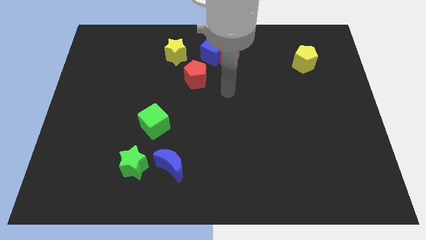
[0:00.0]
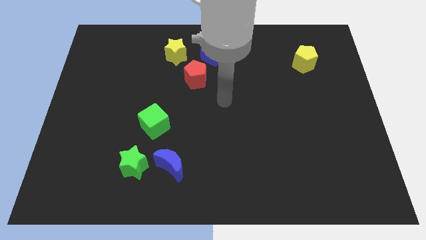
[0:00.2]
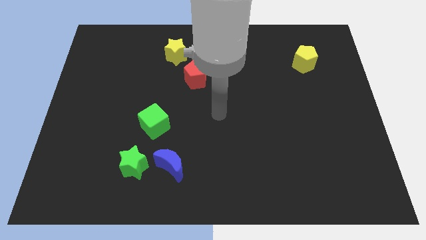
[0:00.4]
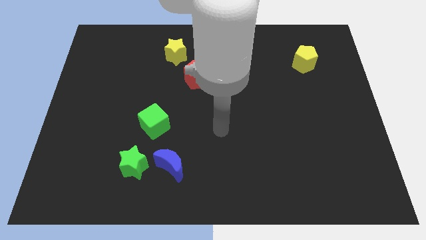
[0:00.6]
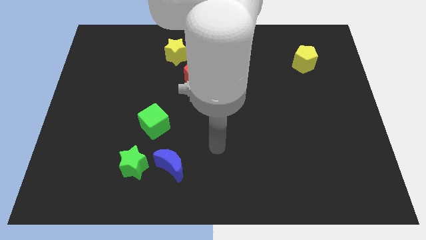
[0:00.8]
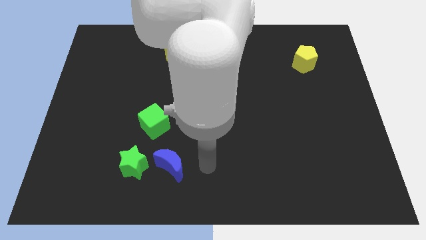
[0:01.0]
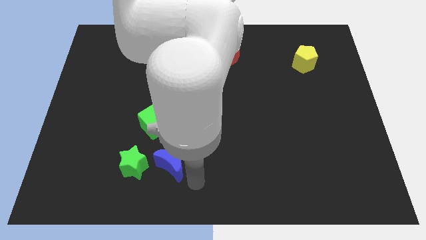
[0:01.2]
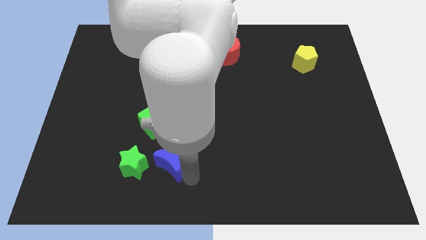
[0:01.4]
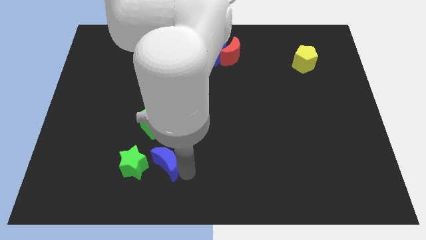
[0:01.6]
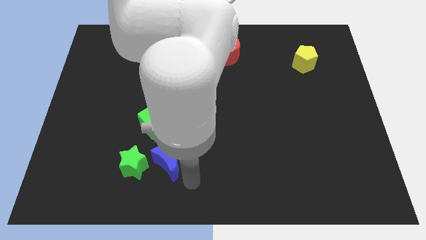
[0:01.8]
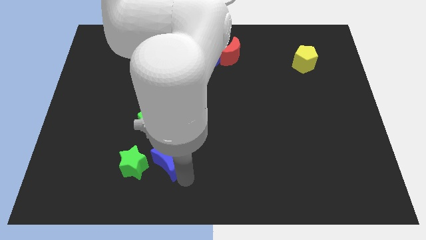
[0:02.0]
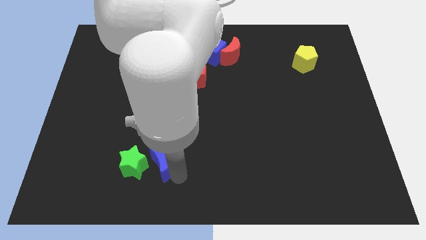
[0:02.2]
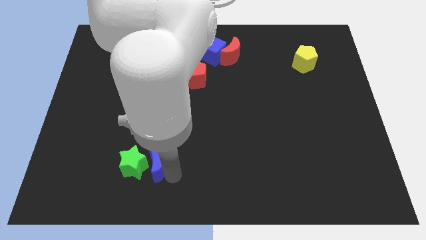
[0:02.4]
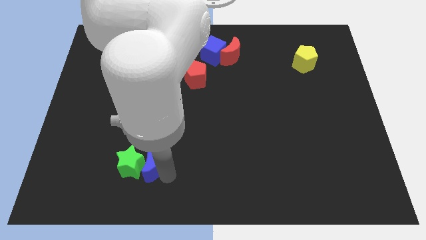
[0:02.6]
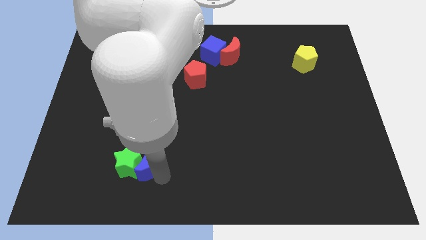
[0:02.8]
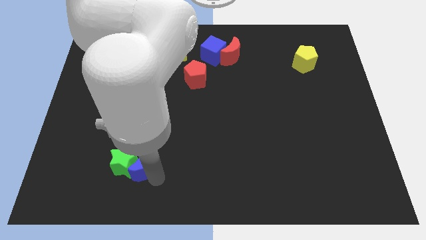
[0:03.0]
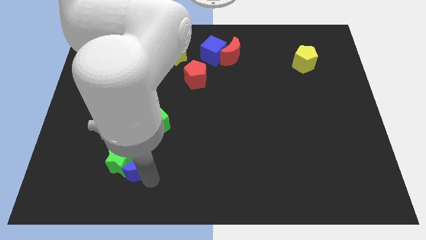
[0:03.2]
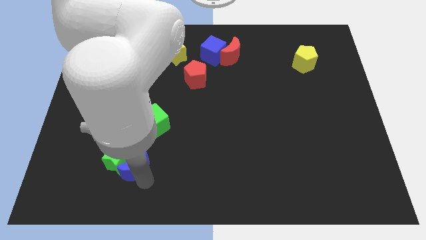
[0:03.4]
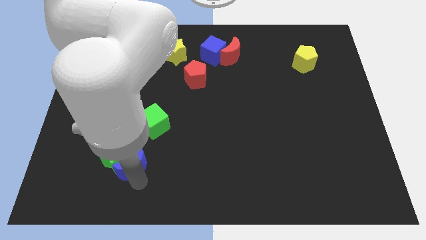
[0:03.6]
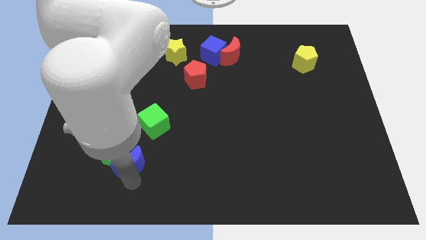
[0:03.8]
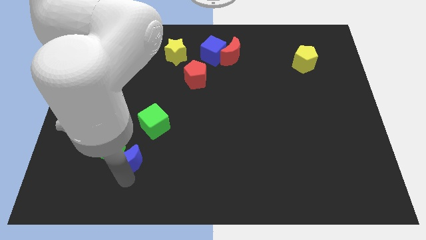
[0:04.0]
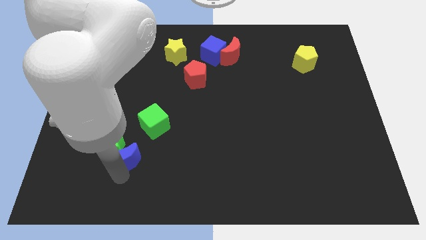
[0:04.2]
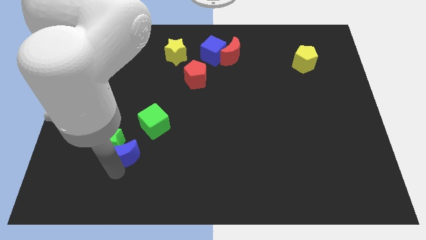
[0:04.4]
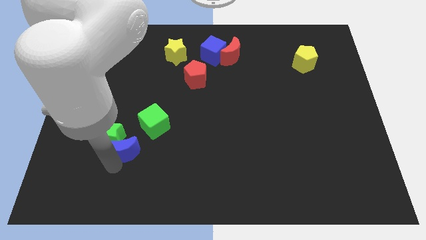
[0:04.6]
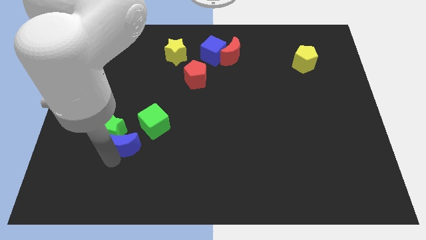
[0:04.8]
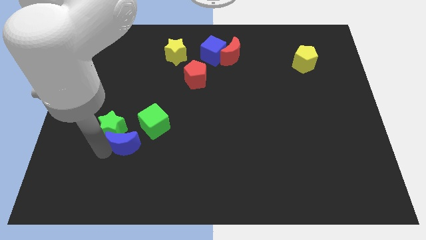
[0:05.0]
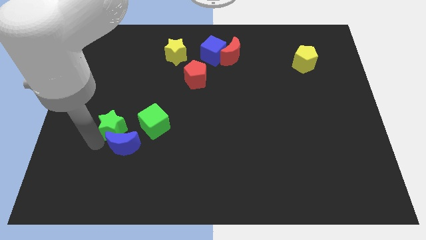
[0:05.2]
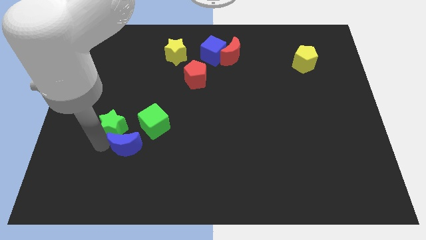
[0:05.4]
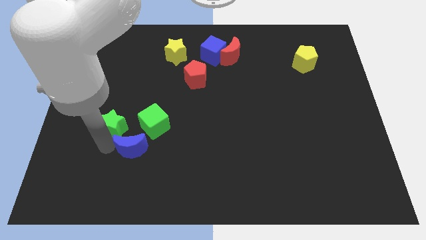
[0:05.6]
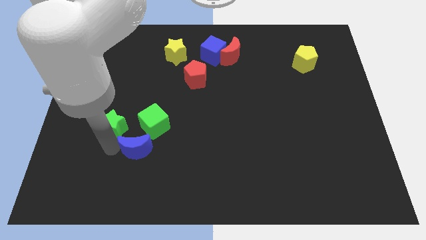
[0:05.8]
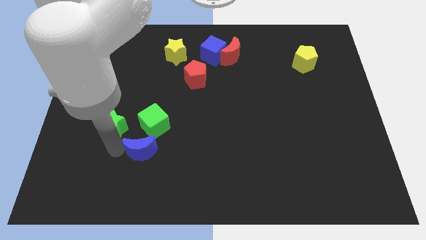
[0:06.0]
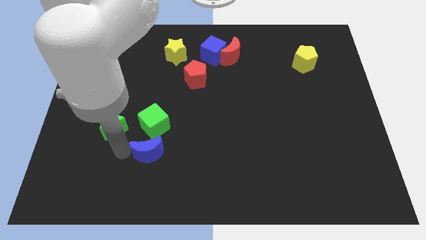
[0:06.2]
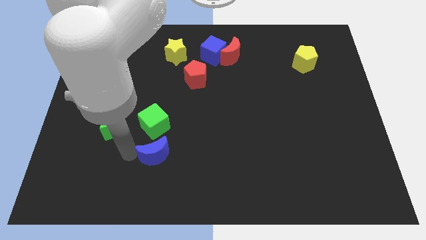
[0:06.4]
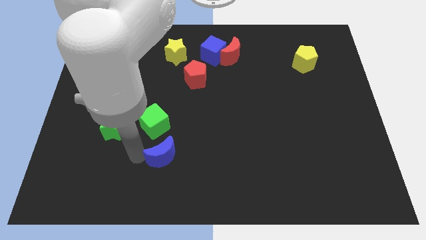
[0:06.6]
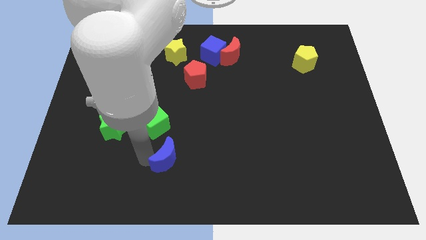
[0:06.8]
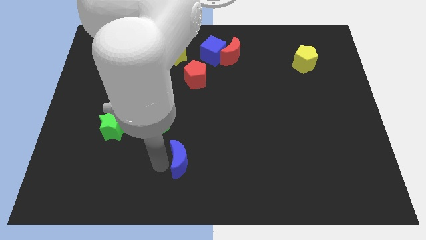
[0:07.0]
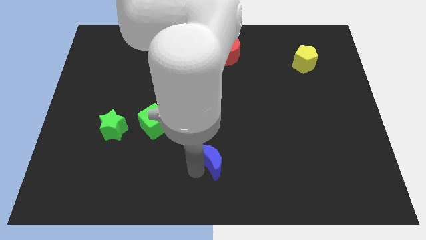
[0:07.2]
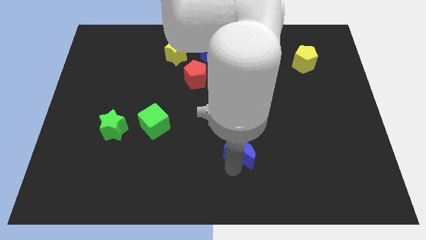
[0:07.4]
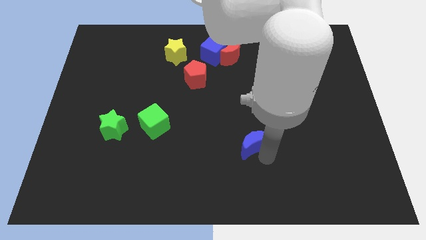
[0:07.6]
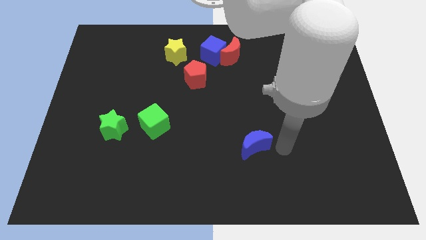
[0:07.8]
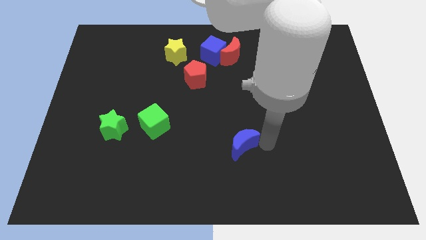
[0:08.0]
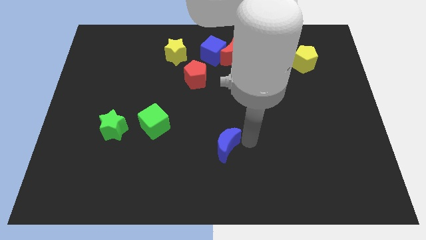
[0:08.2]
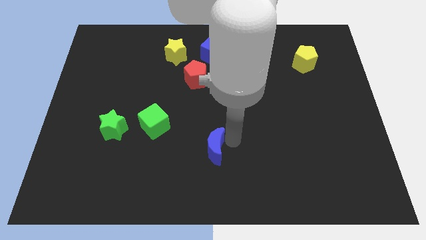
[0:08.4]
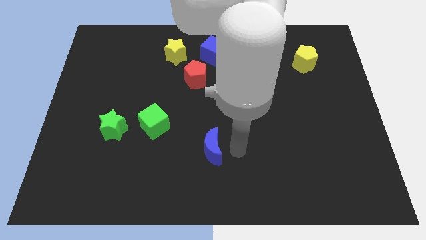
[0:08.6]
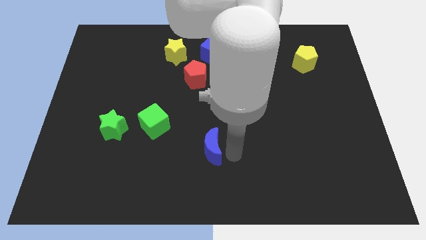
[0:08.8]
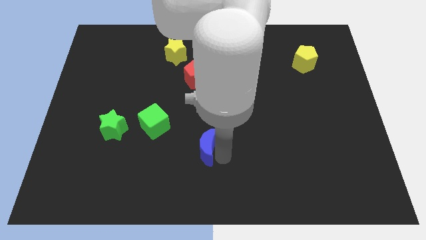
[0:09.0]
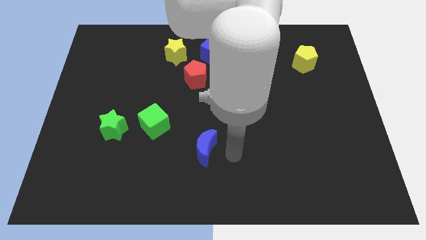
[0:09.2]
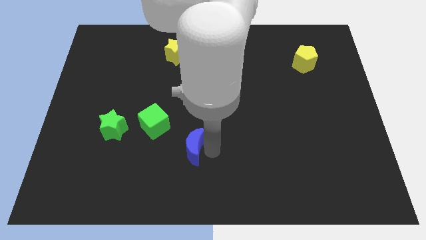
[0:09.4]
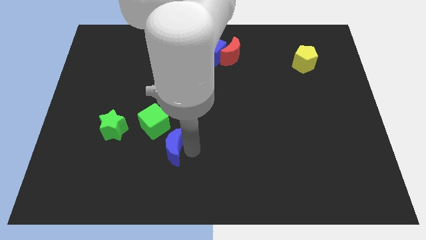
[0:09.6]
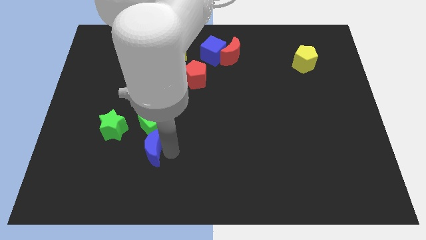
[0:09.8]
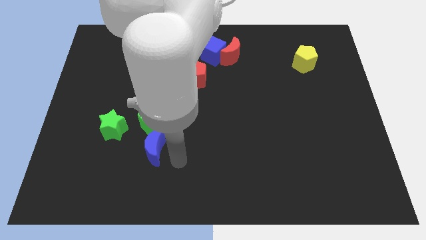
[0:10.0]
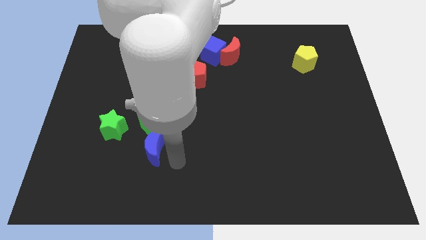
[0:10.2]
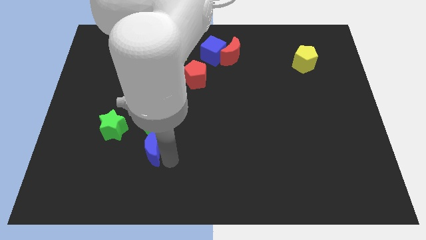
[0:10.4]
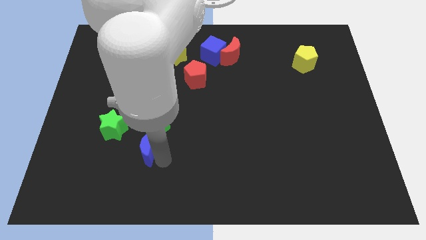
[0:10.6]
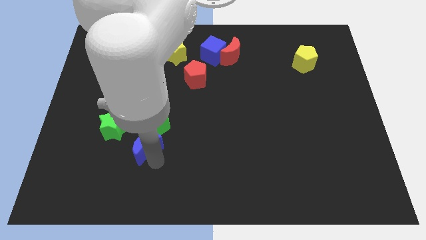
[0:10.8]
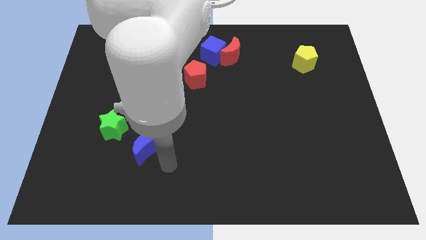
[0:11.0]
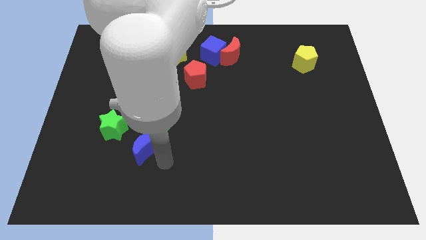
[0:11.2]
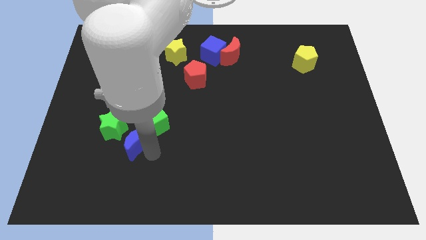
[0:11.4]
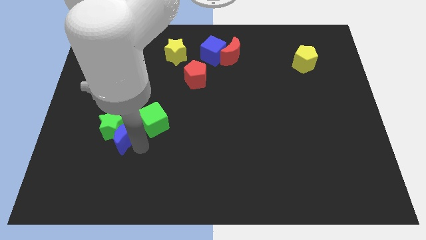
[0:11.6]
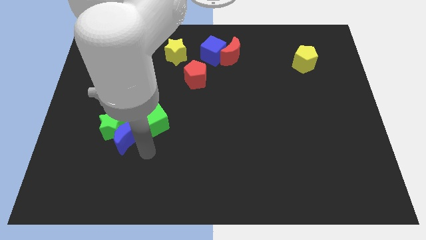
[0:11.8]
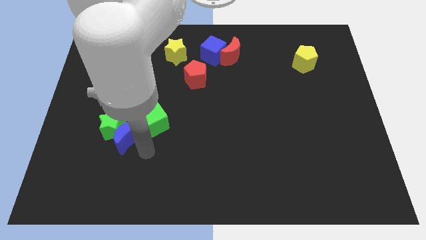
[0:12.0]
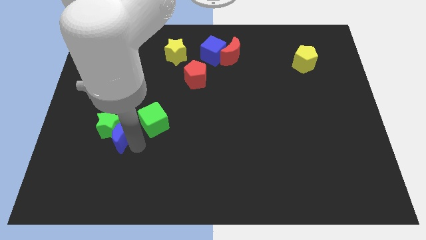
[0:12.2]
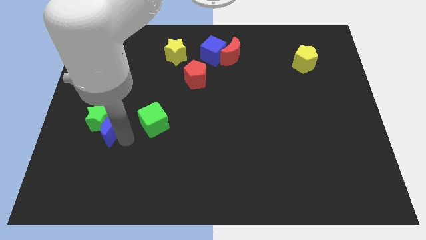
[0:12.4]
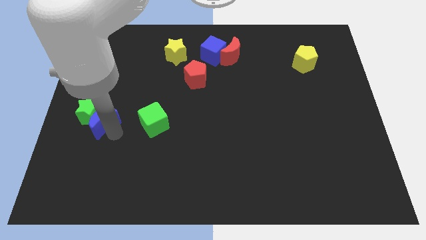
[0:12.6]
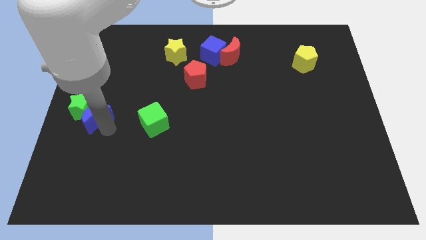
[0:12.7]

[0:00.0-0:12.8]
slide the blue moon to the left side
